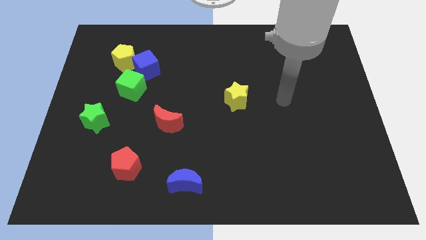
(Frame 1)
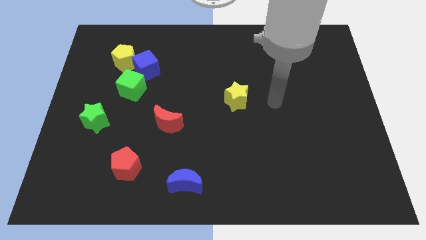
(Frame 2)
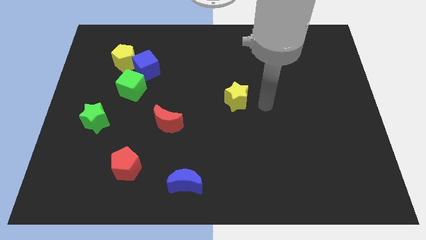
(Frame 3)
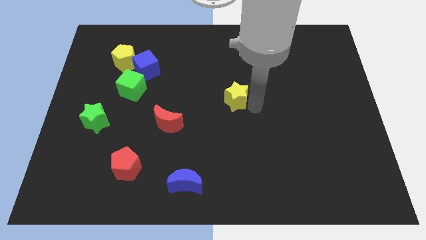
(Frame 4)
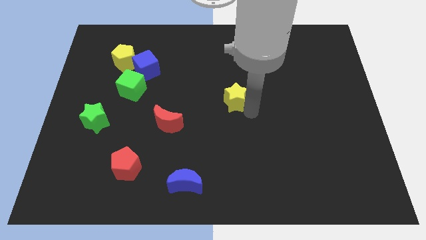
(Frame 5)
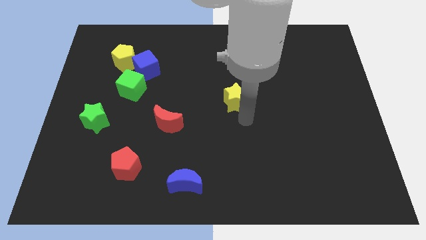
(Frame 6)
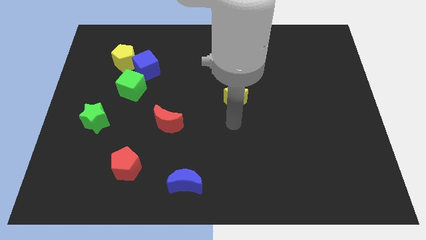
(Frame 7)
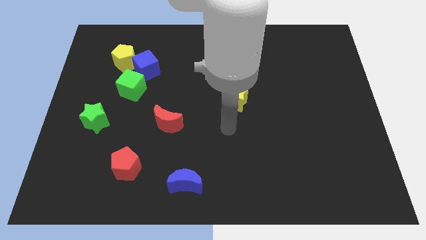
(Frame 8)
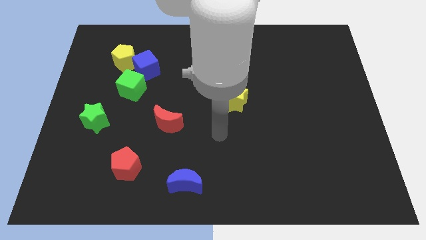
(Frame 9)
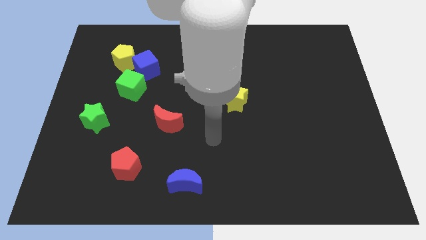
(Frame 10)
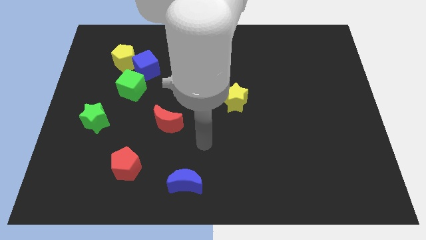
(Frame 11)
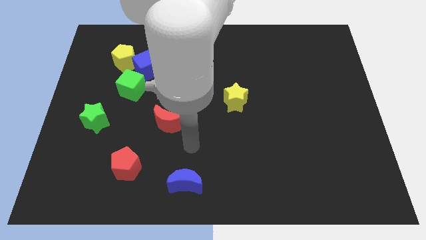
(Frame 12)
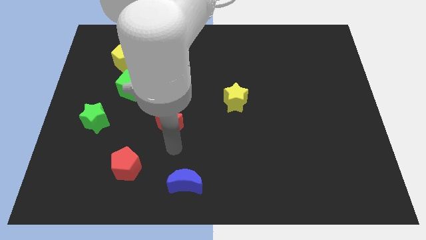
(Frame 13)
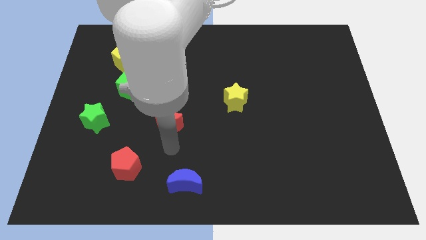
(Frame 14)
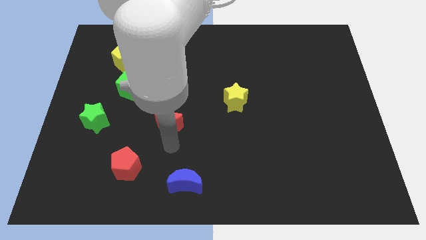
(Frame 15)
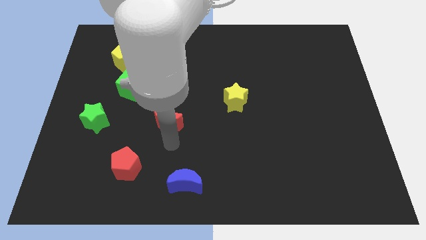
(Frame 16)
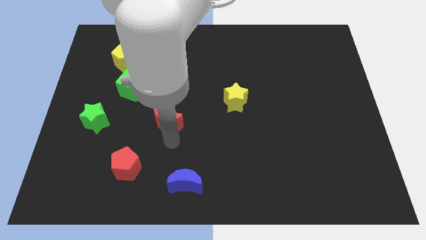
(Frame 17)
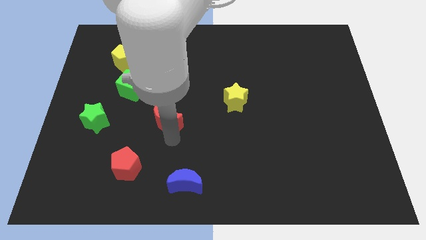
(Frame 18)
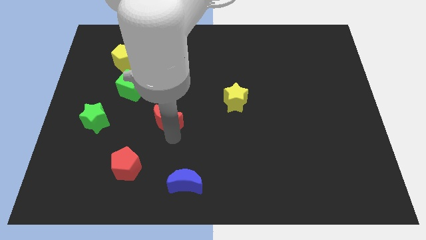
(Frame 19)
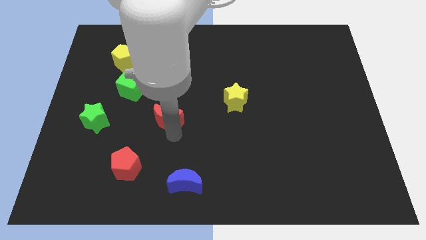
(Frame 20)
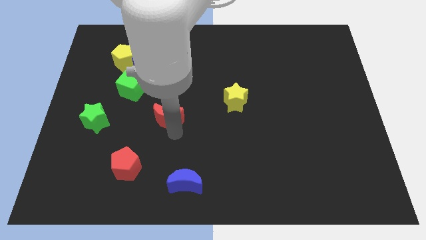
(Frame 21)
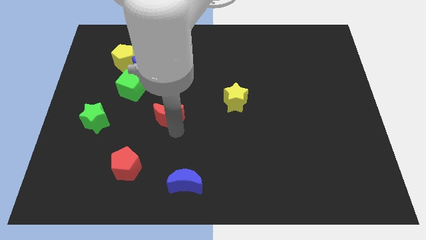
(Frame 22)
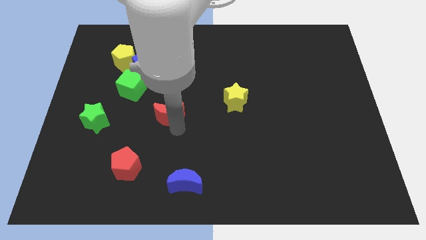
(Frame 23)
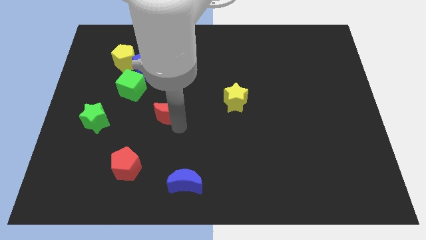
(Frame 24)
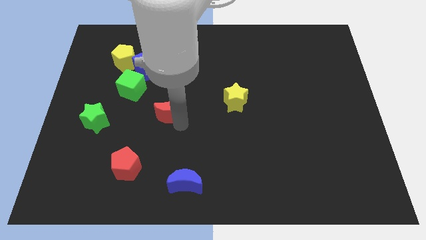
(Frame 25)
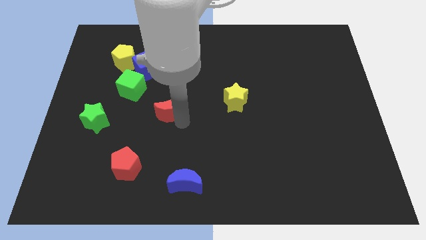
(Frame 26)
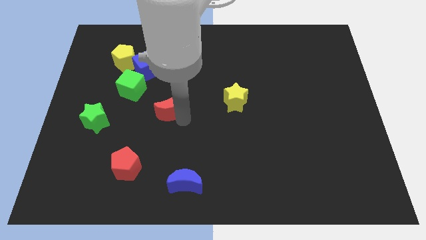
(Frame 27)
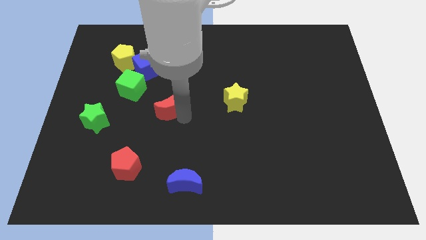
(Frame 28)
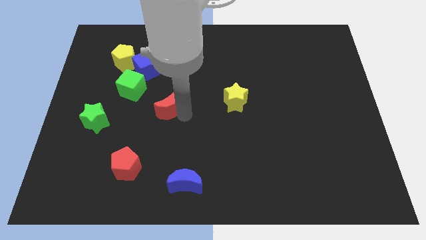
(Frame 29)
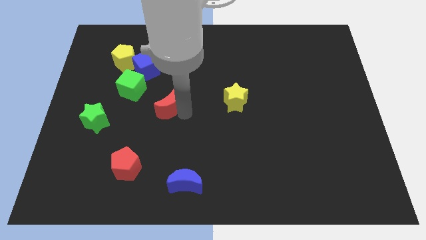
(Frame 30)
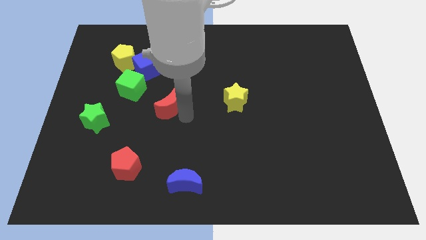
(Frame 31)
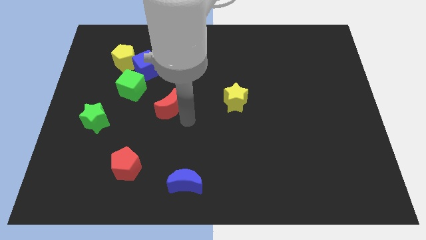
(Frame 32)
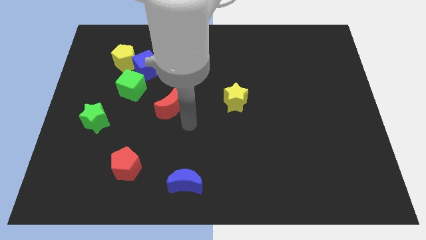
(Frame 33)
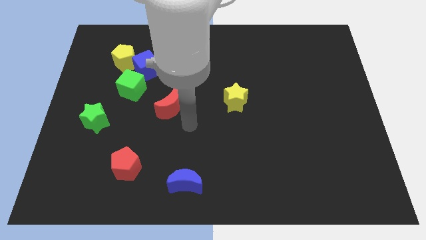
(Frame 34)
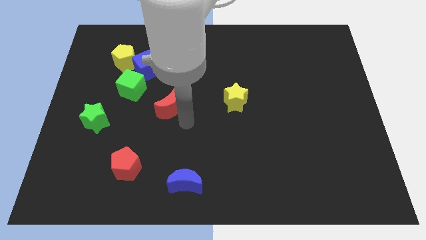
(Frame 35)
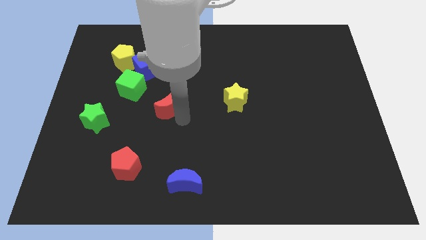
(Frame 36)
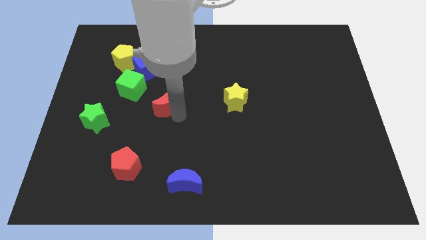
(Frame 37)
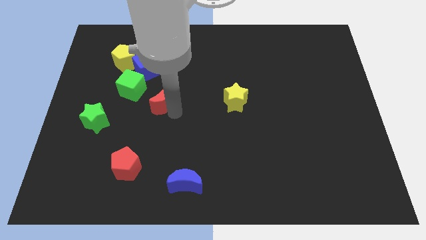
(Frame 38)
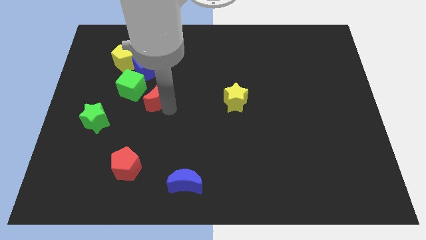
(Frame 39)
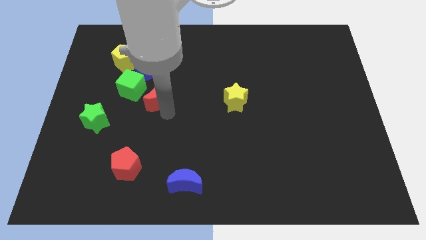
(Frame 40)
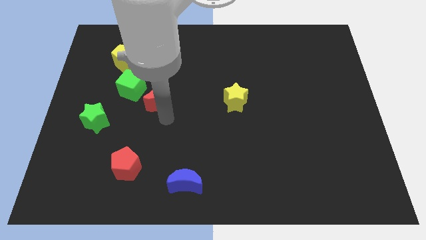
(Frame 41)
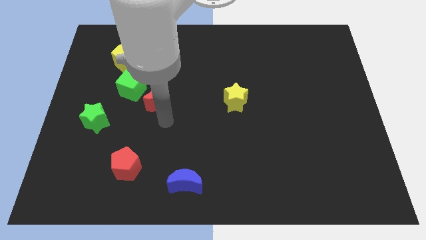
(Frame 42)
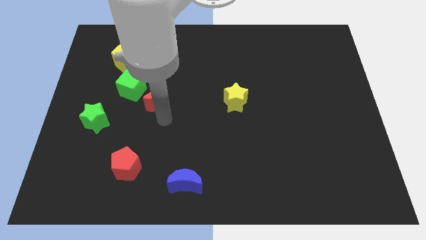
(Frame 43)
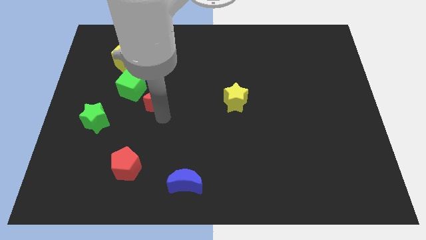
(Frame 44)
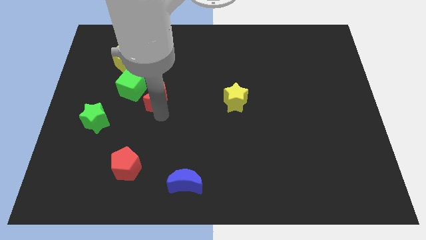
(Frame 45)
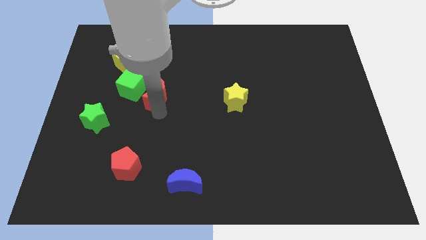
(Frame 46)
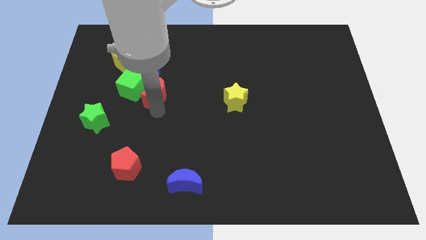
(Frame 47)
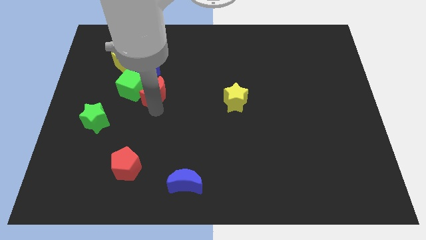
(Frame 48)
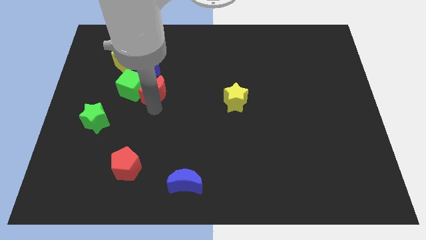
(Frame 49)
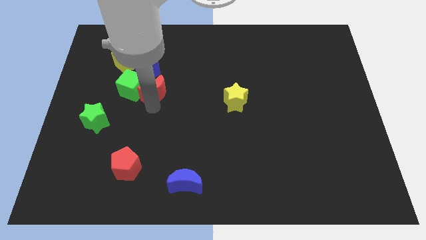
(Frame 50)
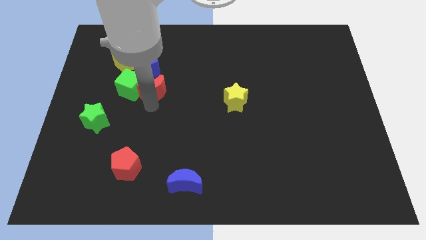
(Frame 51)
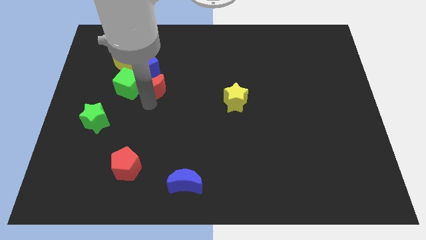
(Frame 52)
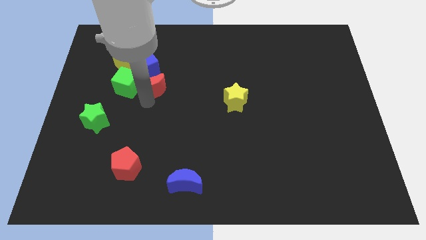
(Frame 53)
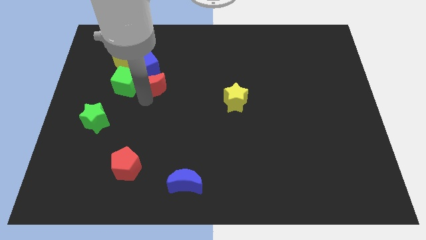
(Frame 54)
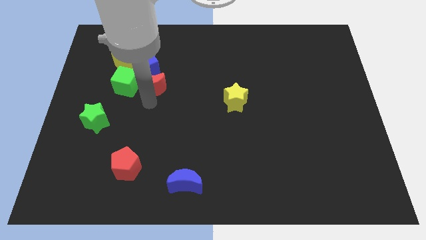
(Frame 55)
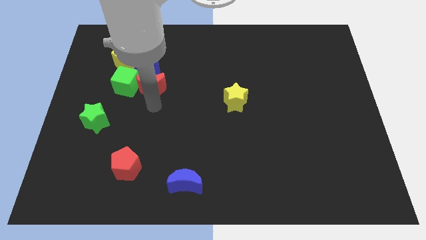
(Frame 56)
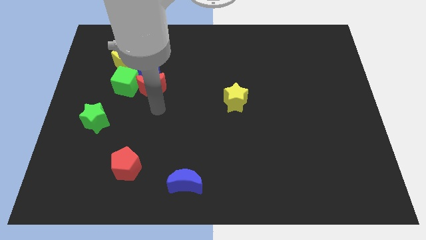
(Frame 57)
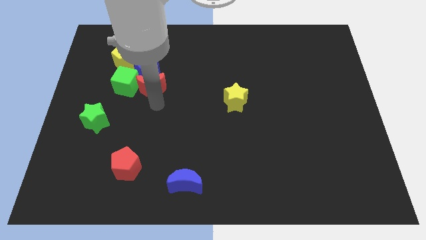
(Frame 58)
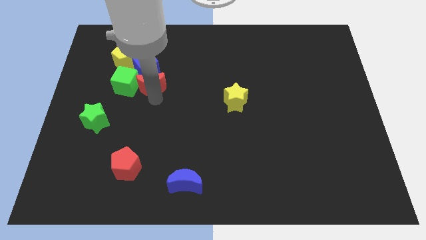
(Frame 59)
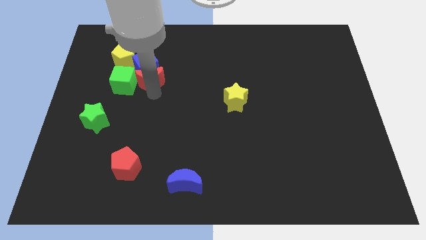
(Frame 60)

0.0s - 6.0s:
move the red moon towards the blue cube

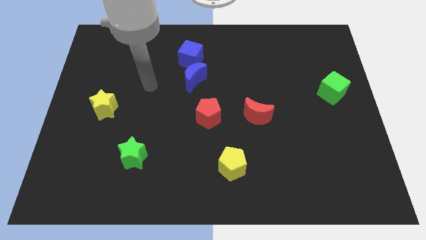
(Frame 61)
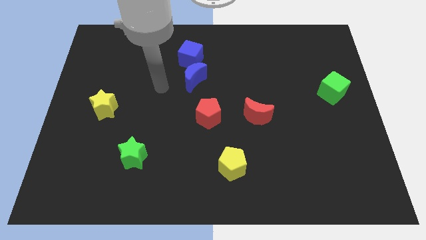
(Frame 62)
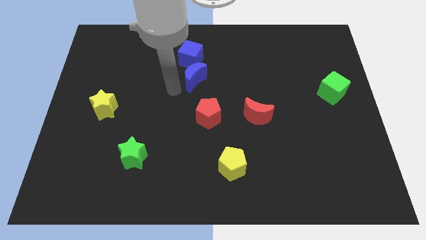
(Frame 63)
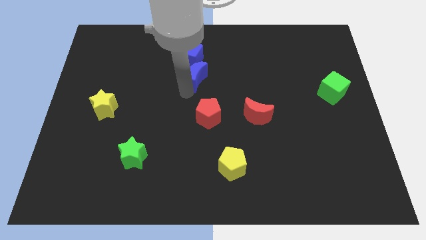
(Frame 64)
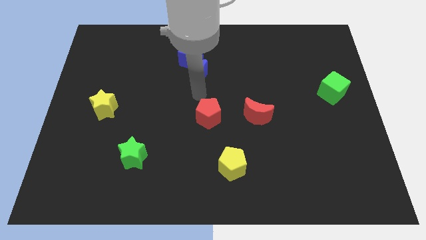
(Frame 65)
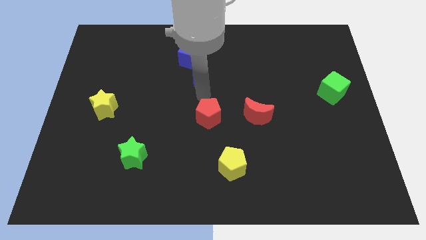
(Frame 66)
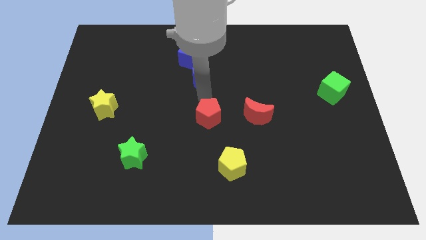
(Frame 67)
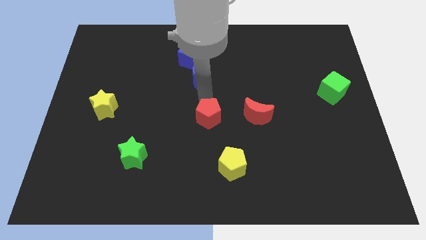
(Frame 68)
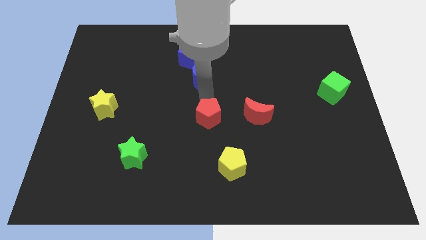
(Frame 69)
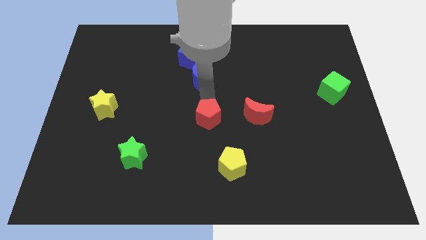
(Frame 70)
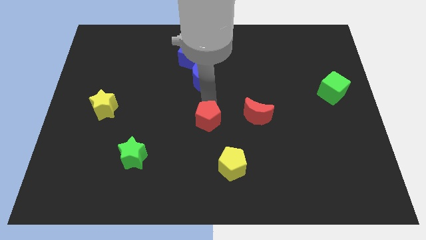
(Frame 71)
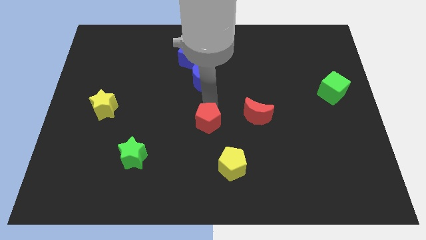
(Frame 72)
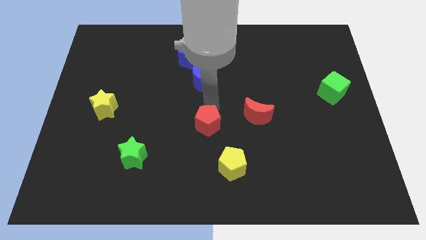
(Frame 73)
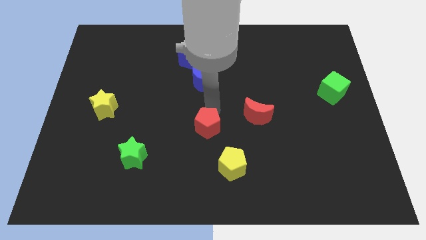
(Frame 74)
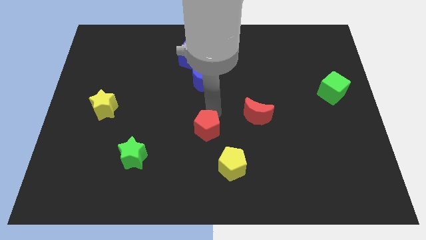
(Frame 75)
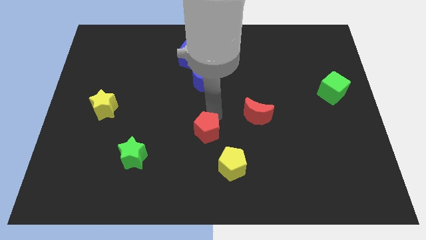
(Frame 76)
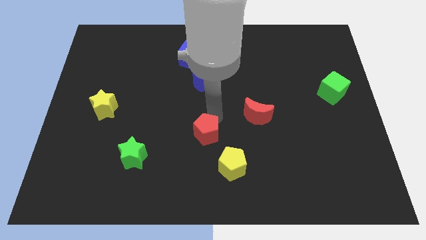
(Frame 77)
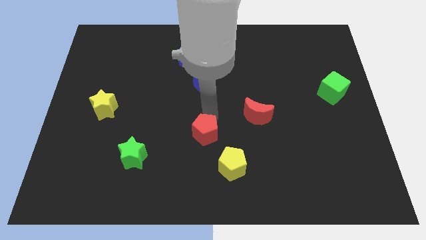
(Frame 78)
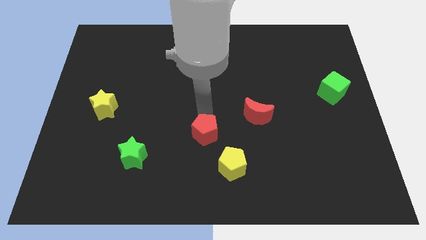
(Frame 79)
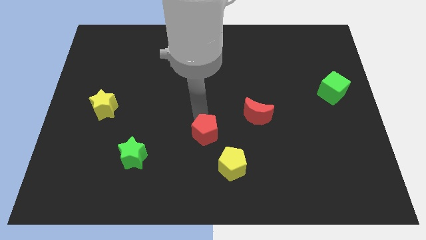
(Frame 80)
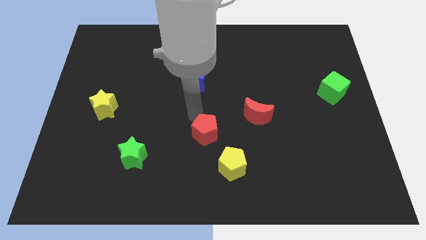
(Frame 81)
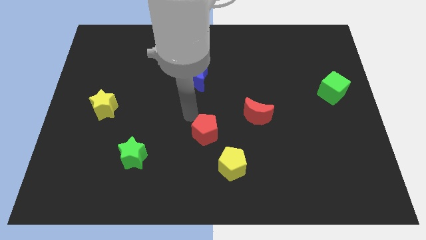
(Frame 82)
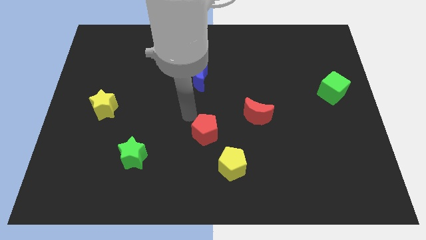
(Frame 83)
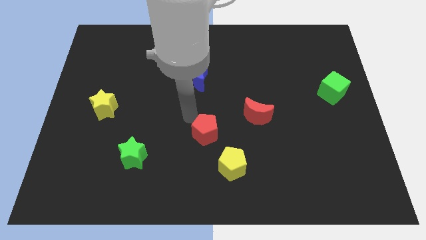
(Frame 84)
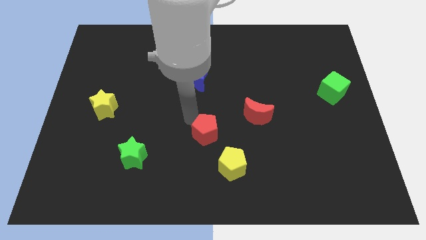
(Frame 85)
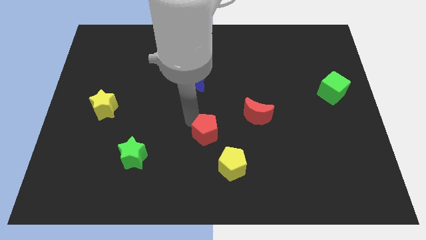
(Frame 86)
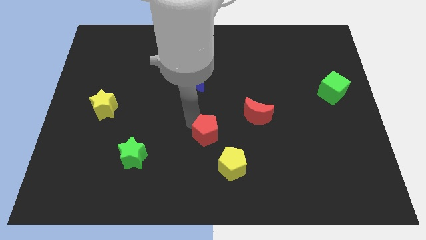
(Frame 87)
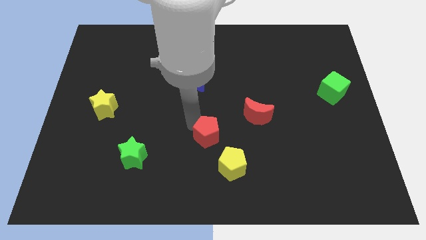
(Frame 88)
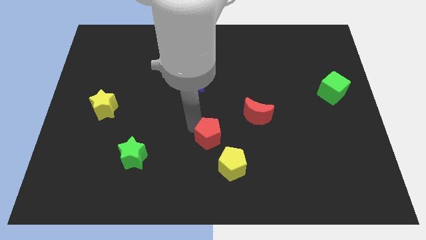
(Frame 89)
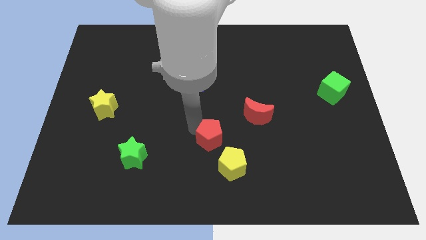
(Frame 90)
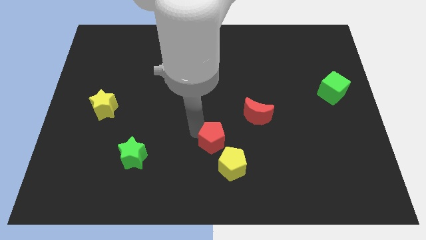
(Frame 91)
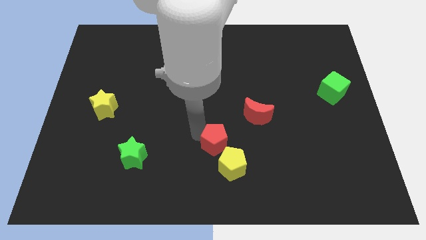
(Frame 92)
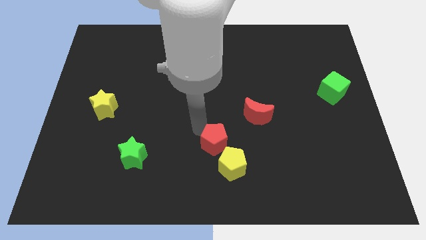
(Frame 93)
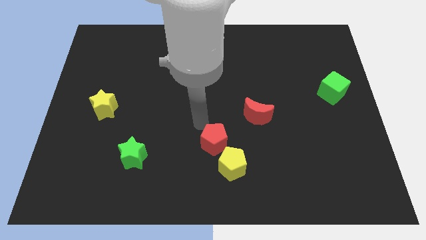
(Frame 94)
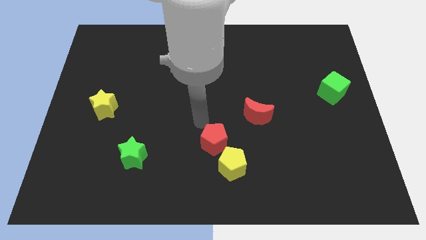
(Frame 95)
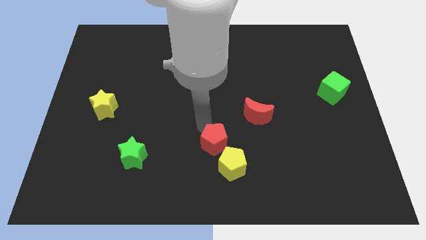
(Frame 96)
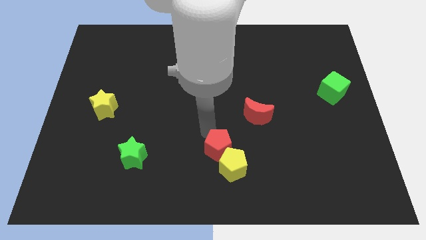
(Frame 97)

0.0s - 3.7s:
move the red pentagon close to the yellow pentagon
